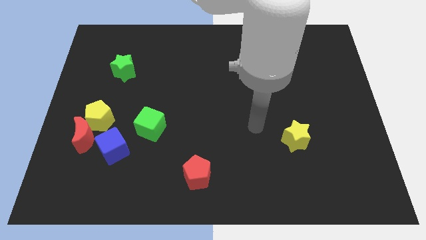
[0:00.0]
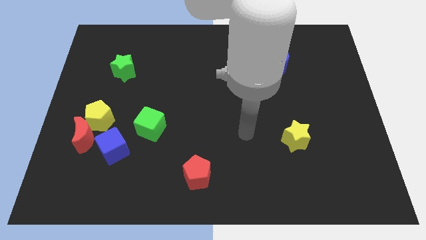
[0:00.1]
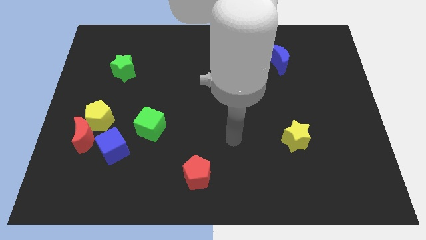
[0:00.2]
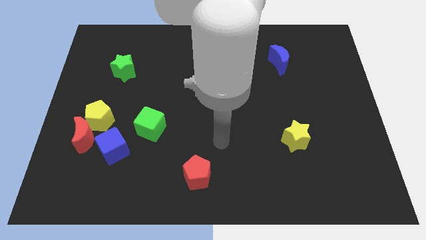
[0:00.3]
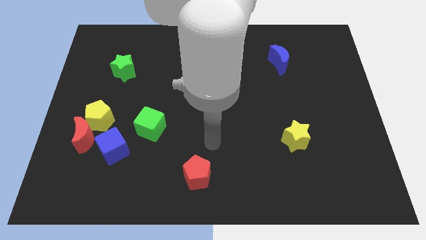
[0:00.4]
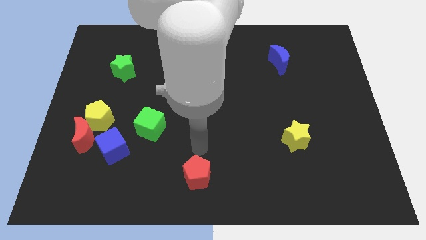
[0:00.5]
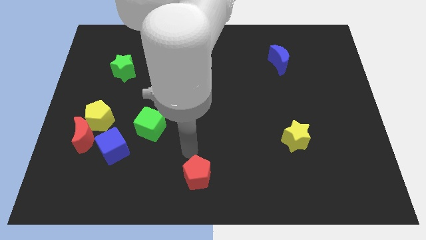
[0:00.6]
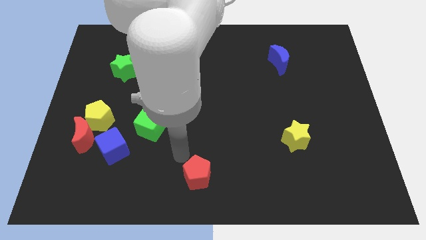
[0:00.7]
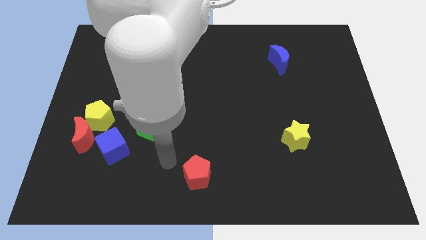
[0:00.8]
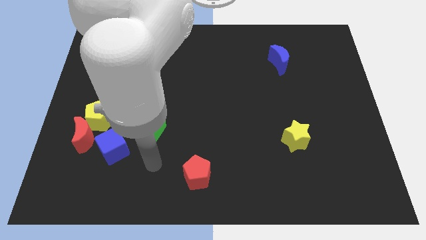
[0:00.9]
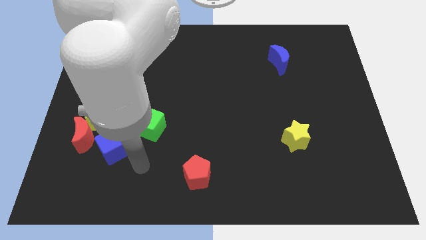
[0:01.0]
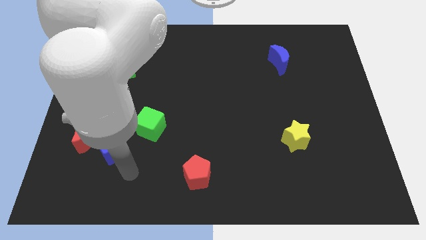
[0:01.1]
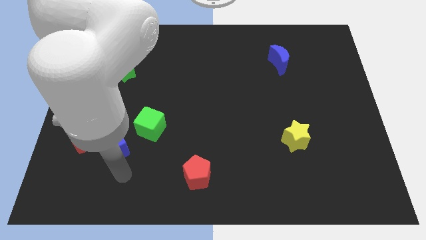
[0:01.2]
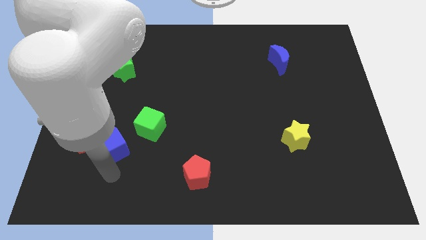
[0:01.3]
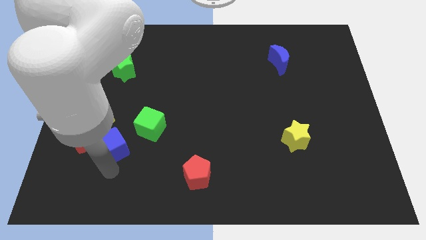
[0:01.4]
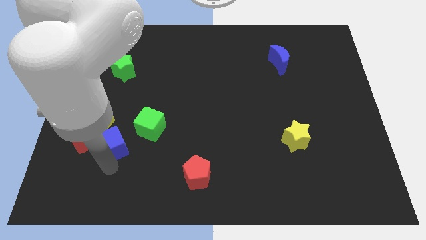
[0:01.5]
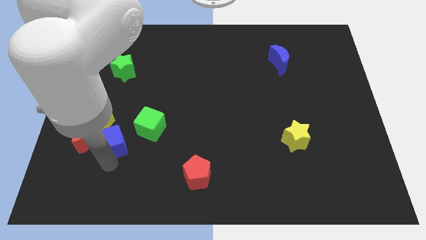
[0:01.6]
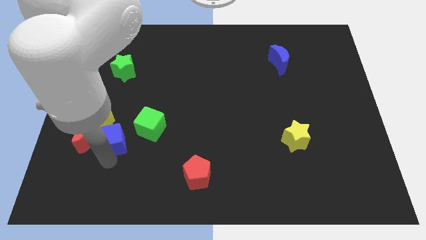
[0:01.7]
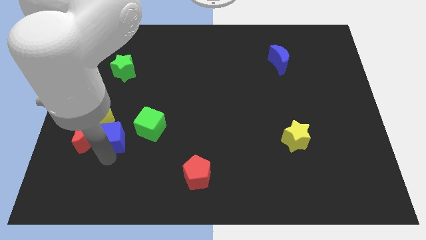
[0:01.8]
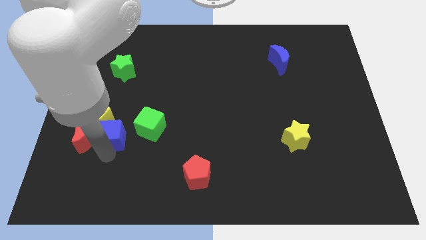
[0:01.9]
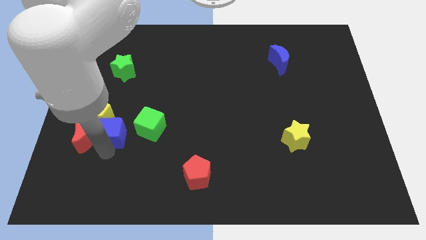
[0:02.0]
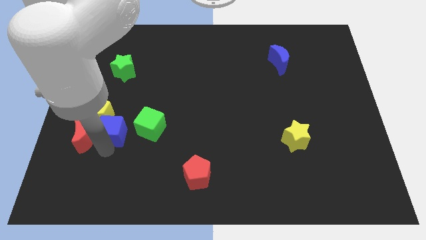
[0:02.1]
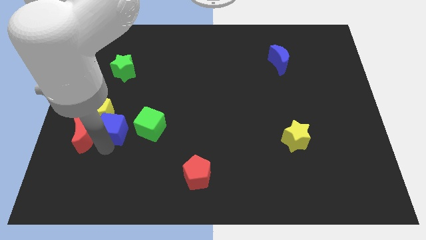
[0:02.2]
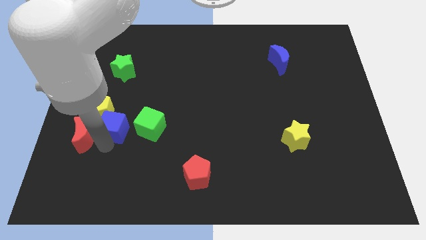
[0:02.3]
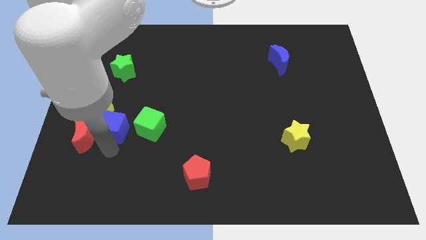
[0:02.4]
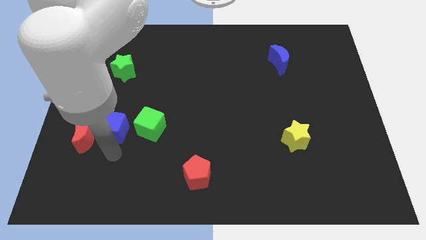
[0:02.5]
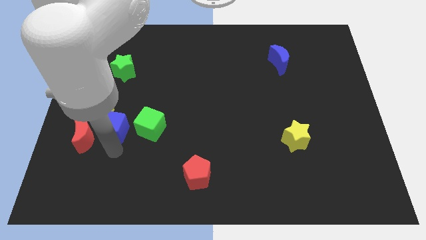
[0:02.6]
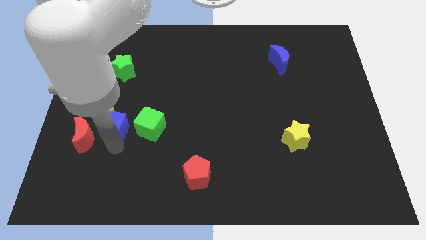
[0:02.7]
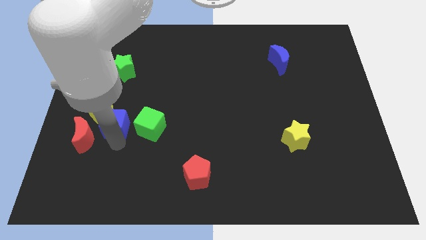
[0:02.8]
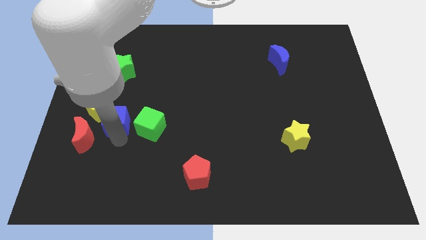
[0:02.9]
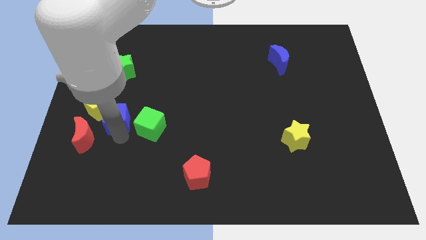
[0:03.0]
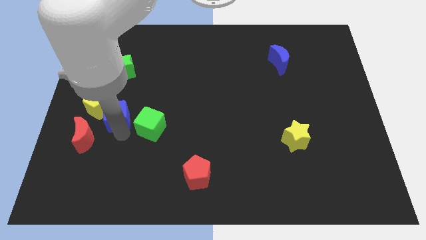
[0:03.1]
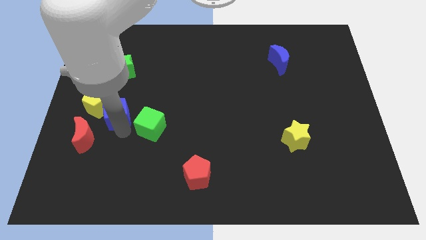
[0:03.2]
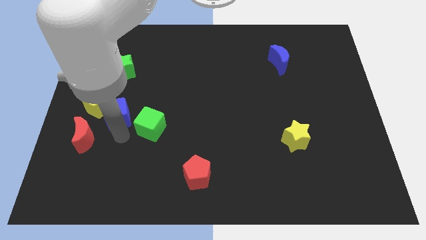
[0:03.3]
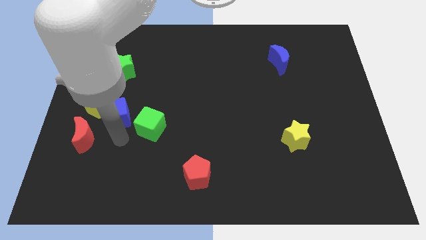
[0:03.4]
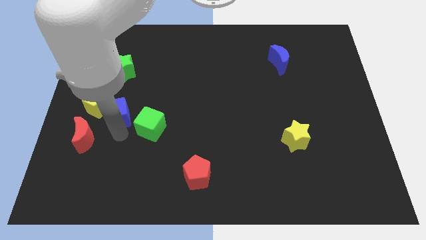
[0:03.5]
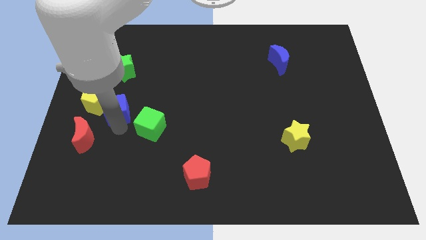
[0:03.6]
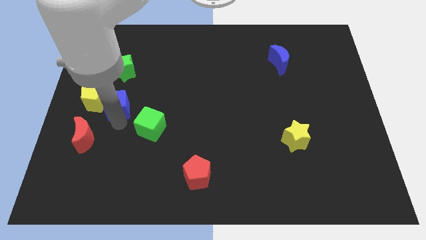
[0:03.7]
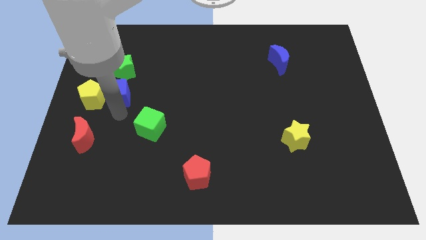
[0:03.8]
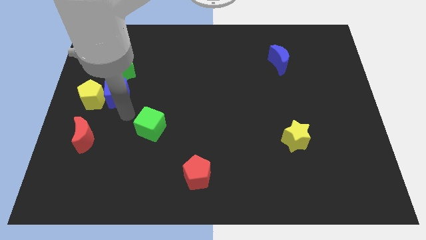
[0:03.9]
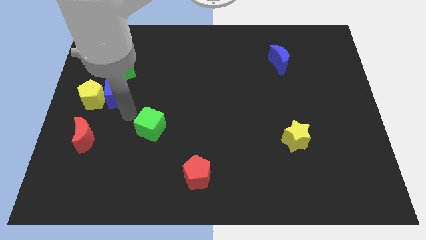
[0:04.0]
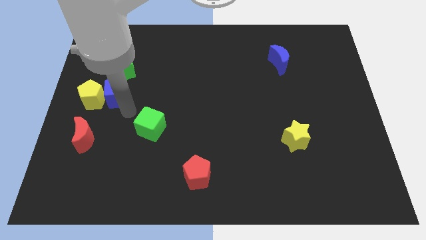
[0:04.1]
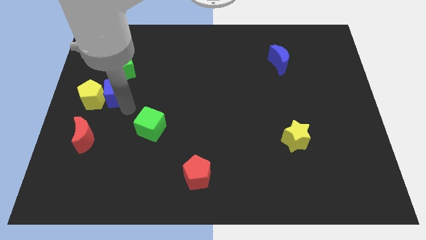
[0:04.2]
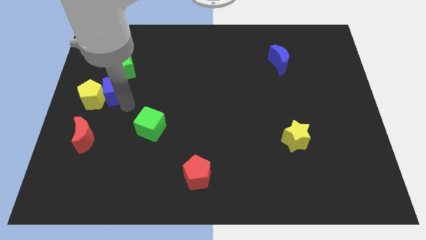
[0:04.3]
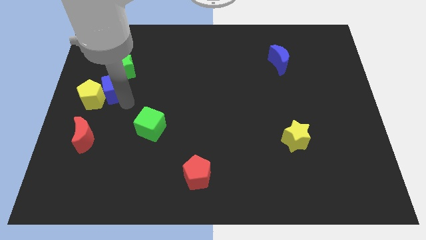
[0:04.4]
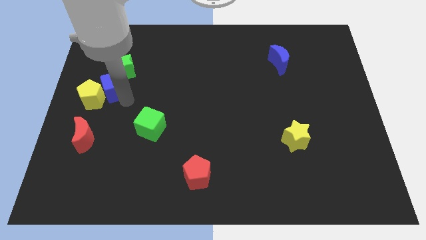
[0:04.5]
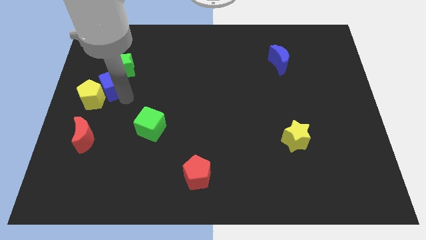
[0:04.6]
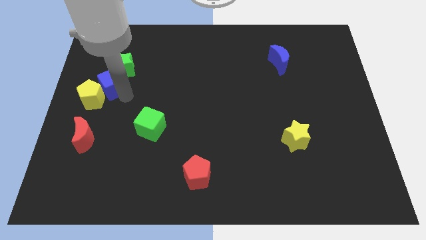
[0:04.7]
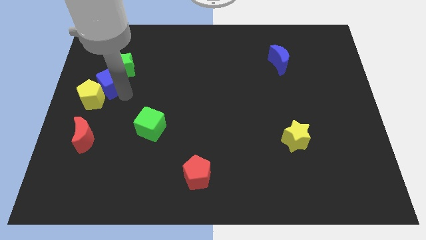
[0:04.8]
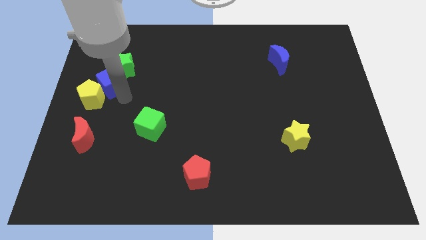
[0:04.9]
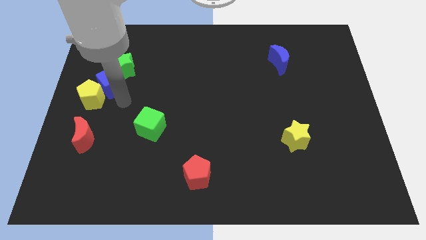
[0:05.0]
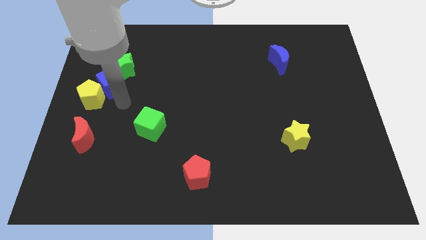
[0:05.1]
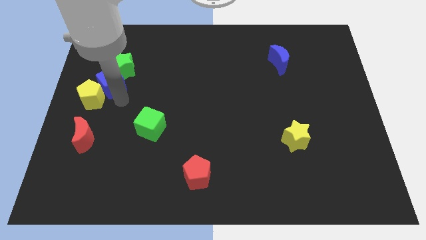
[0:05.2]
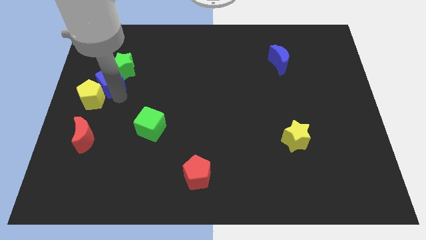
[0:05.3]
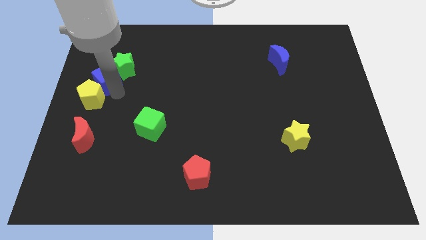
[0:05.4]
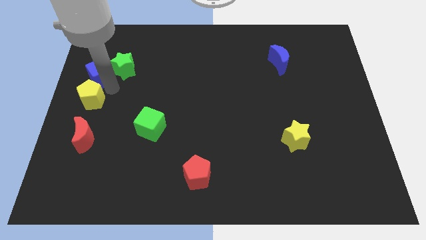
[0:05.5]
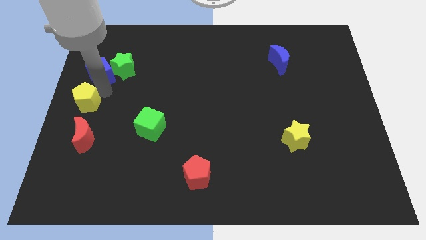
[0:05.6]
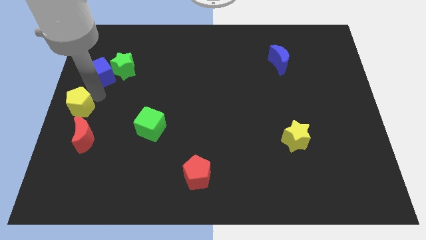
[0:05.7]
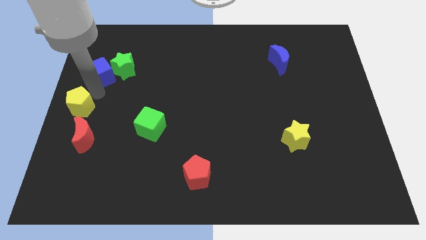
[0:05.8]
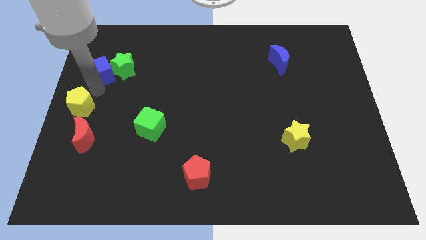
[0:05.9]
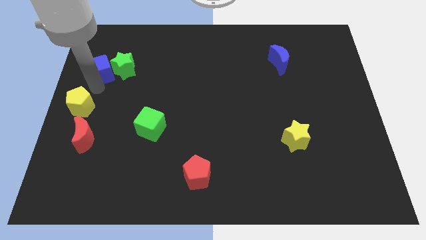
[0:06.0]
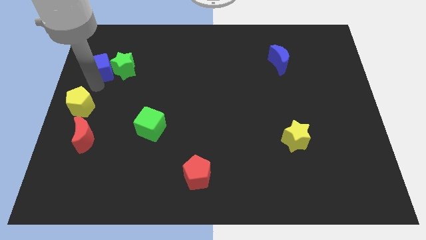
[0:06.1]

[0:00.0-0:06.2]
push the blue cube diagonally up and to the left of the green star

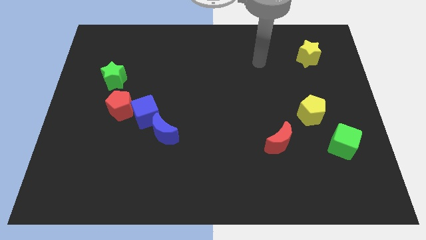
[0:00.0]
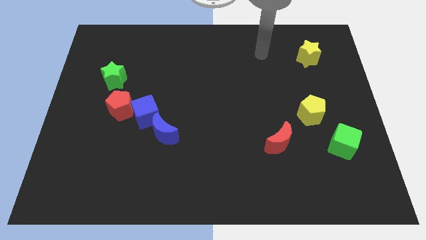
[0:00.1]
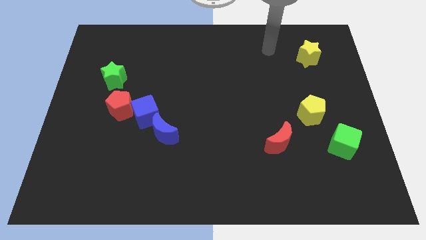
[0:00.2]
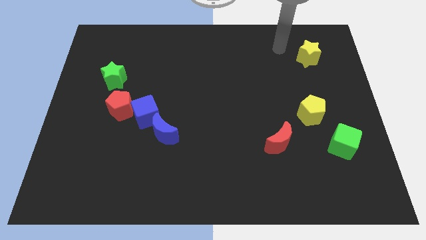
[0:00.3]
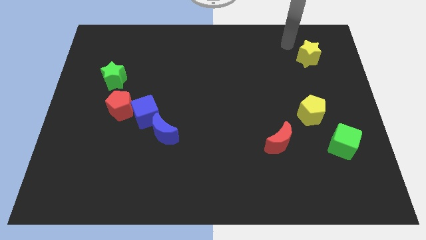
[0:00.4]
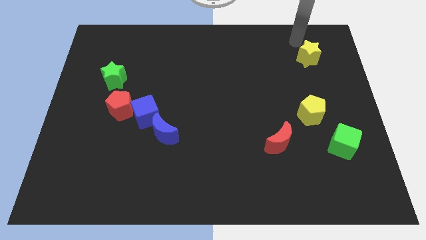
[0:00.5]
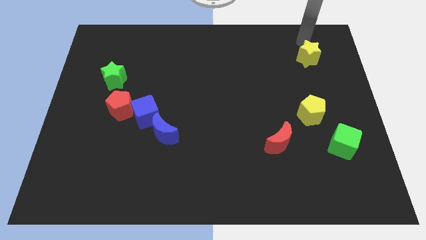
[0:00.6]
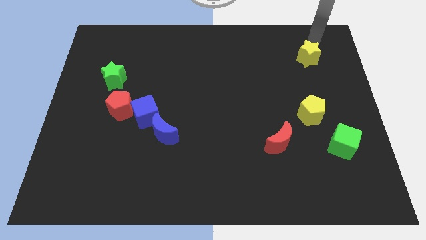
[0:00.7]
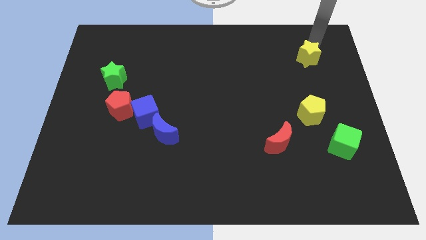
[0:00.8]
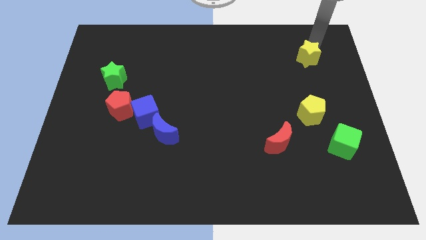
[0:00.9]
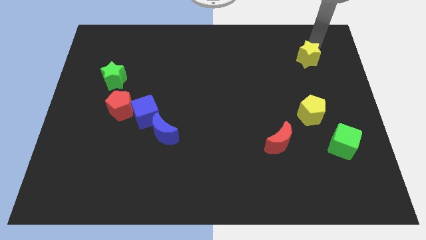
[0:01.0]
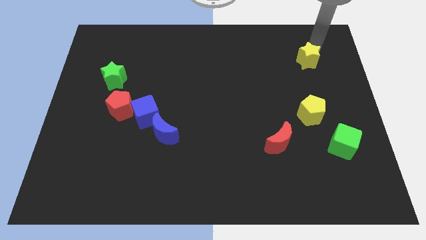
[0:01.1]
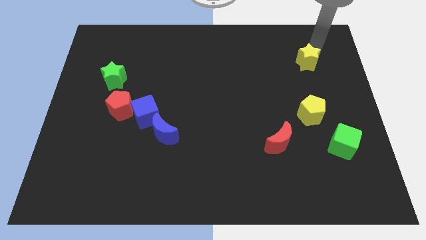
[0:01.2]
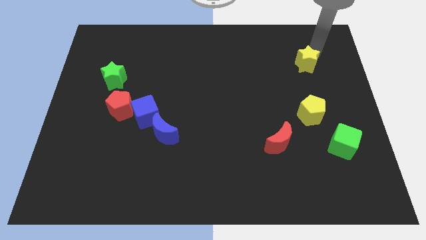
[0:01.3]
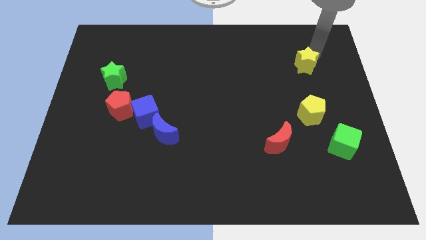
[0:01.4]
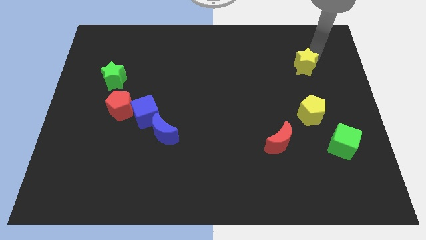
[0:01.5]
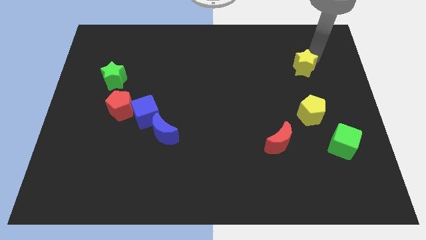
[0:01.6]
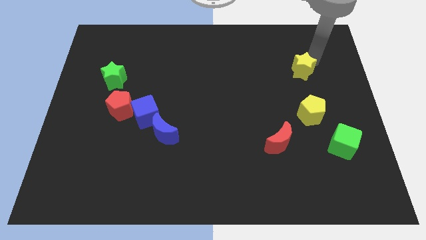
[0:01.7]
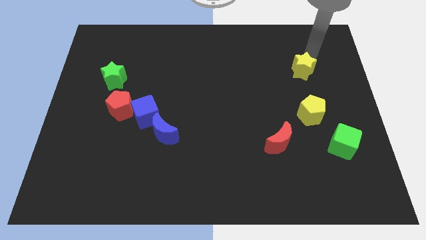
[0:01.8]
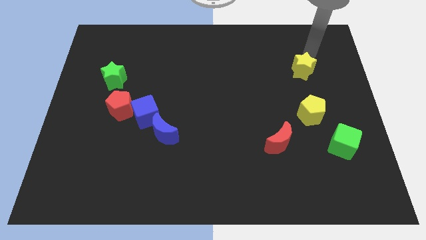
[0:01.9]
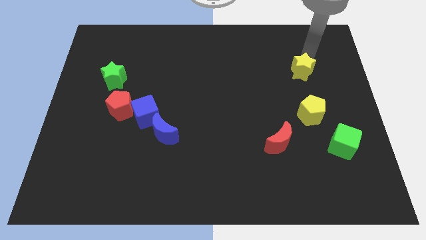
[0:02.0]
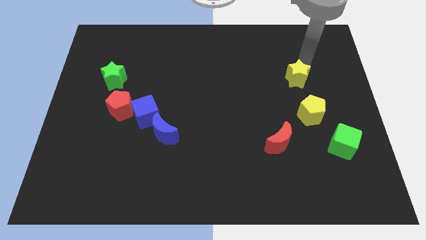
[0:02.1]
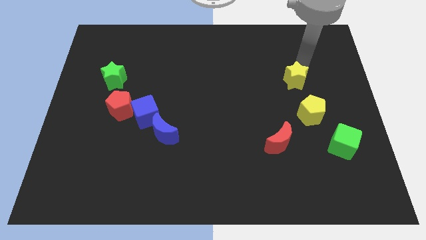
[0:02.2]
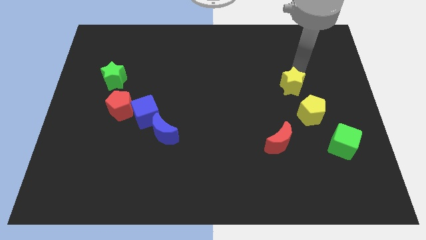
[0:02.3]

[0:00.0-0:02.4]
move the yellow star diagonally up and to the left of the yellow pentagon
